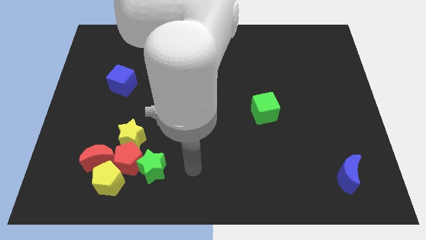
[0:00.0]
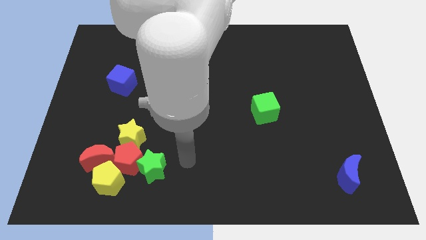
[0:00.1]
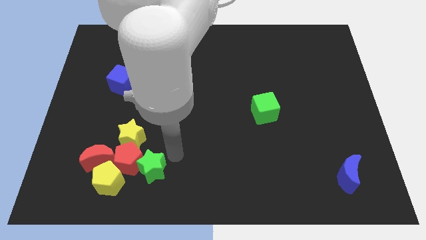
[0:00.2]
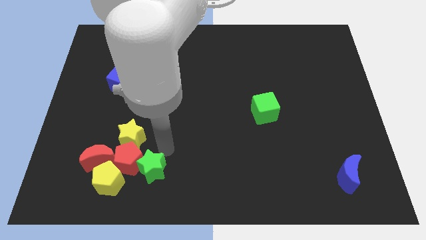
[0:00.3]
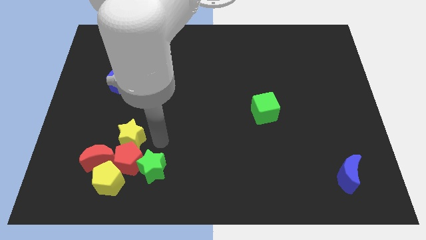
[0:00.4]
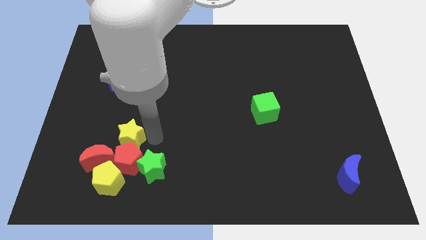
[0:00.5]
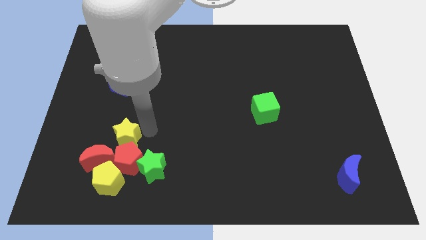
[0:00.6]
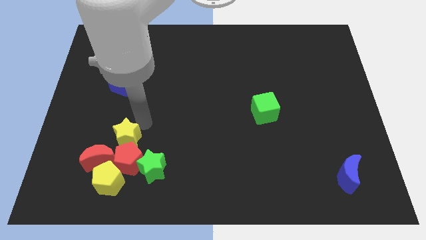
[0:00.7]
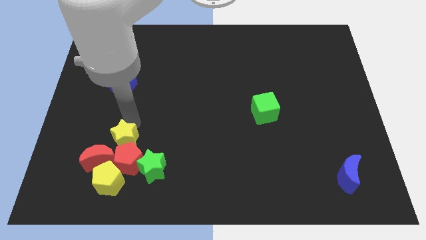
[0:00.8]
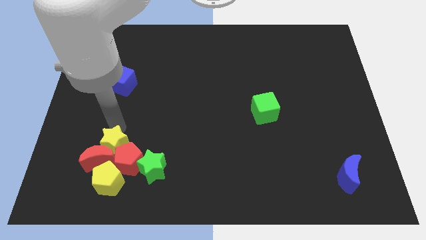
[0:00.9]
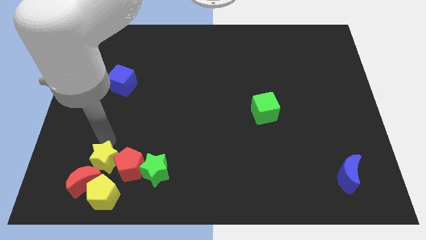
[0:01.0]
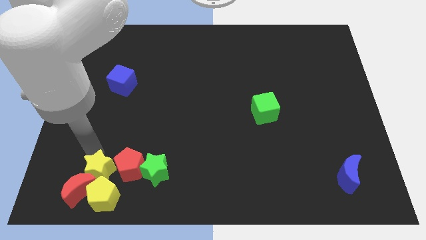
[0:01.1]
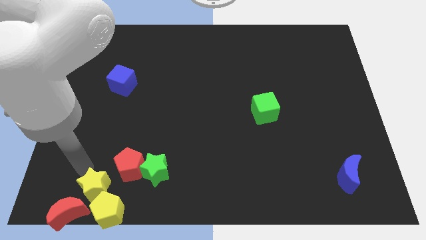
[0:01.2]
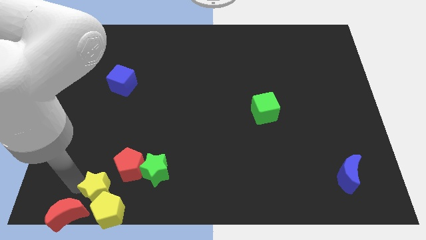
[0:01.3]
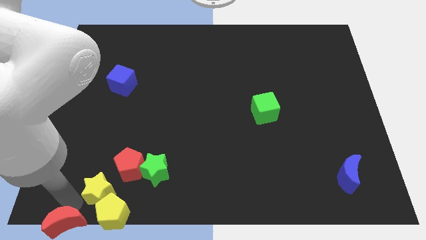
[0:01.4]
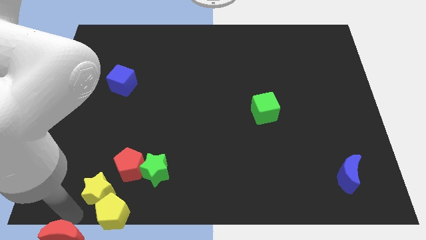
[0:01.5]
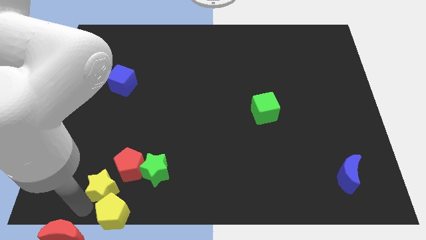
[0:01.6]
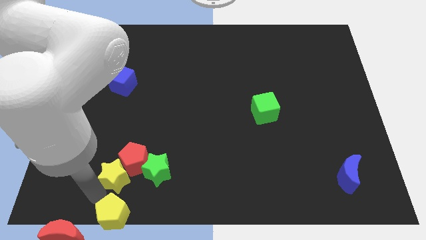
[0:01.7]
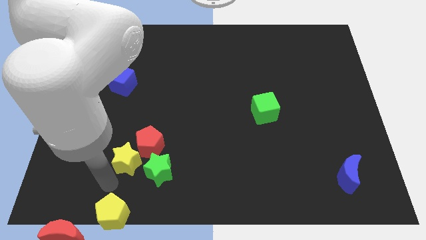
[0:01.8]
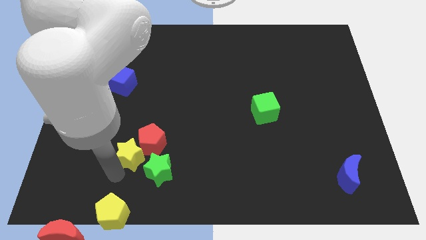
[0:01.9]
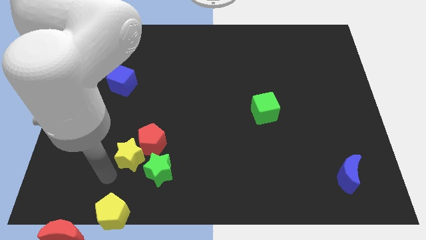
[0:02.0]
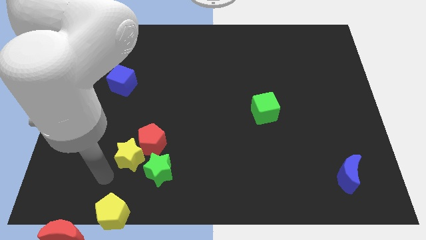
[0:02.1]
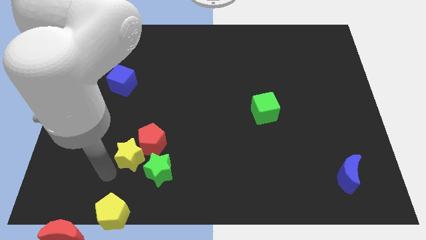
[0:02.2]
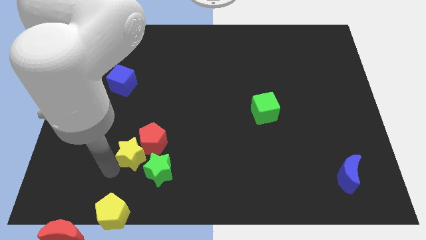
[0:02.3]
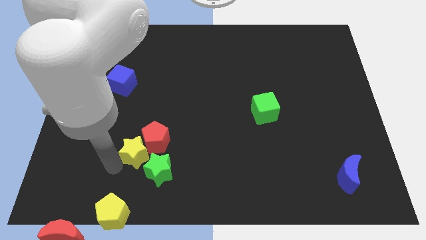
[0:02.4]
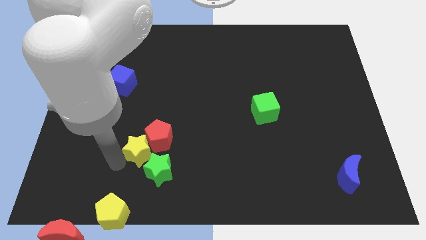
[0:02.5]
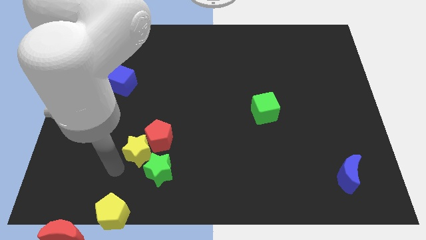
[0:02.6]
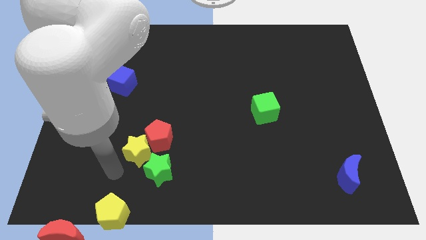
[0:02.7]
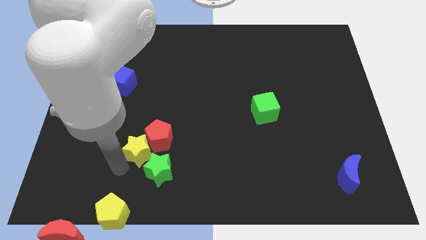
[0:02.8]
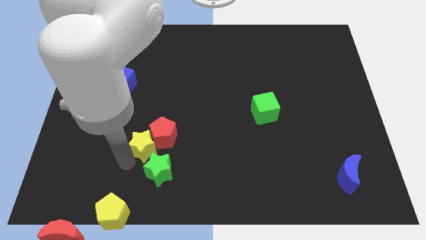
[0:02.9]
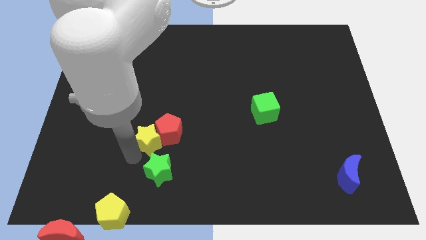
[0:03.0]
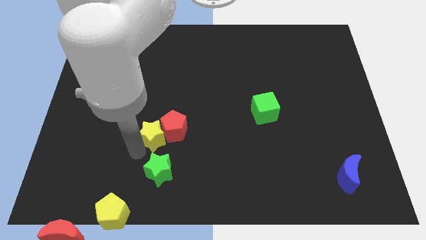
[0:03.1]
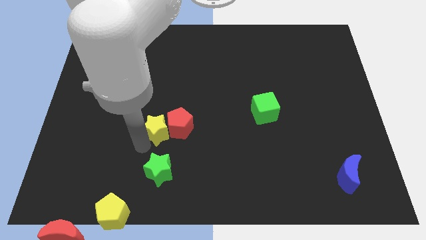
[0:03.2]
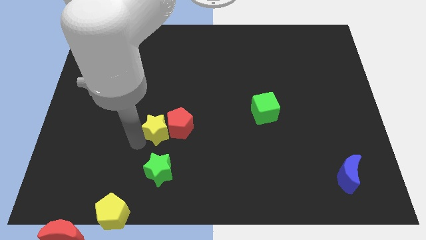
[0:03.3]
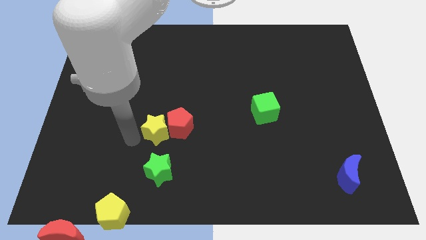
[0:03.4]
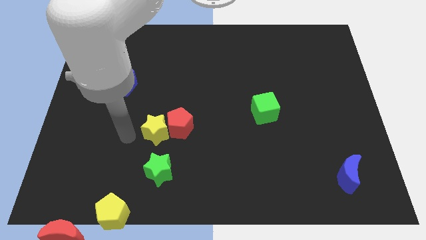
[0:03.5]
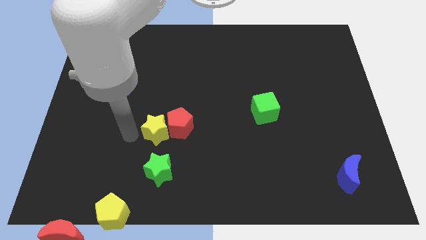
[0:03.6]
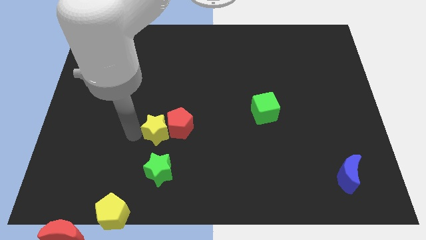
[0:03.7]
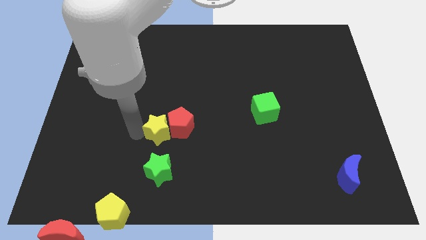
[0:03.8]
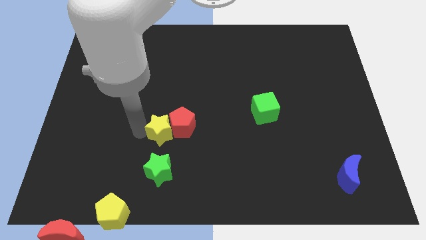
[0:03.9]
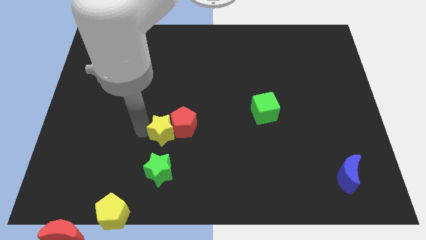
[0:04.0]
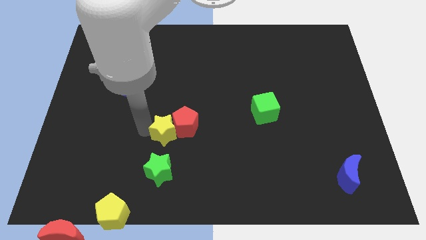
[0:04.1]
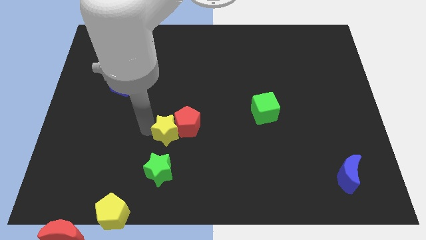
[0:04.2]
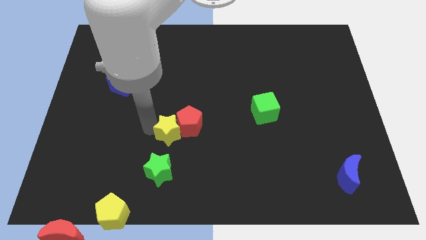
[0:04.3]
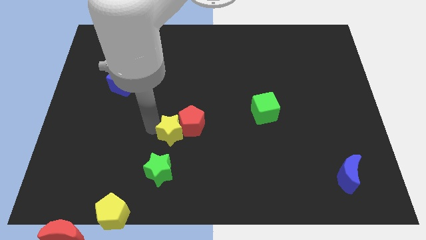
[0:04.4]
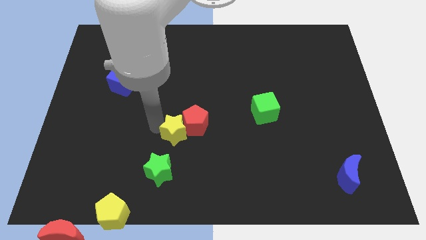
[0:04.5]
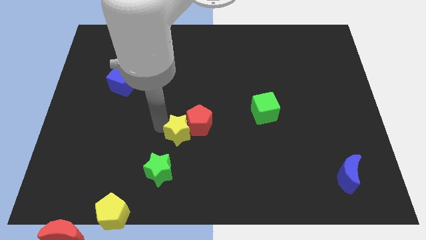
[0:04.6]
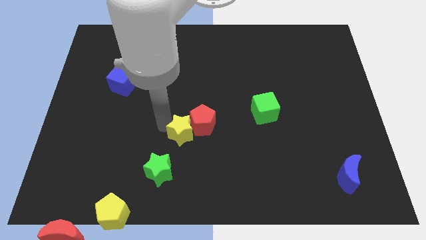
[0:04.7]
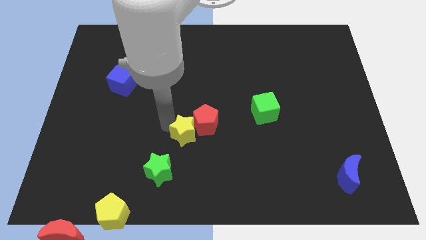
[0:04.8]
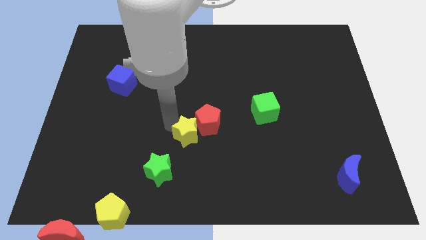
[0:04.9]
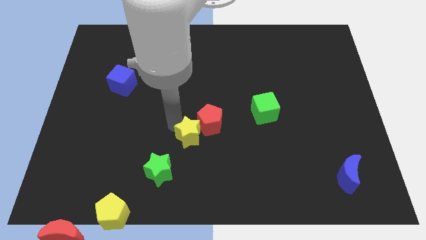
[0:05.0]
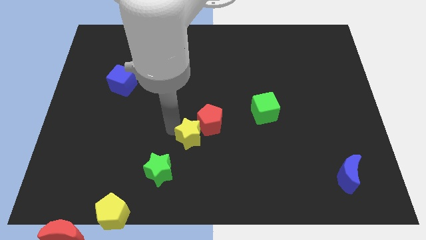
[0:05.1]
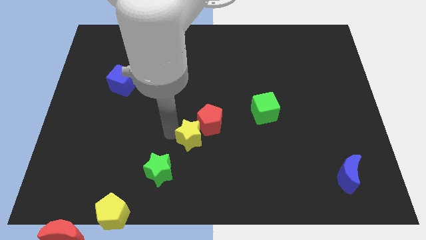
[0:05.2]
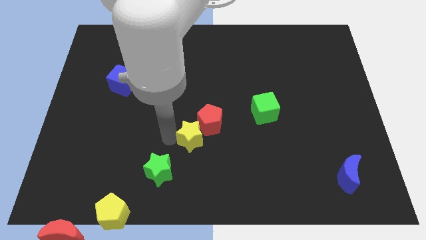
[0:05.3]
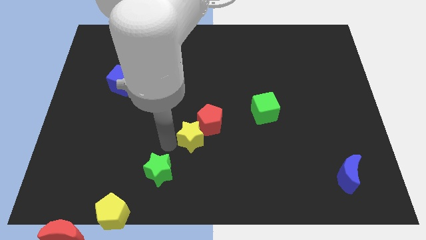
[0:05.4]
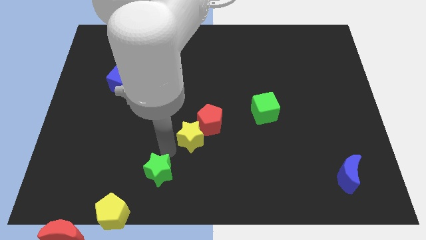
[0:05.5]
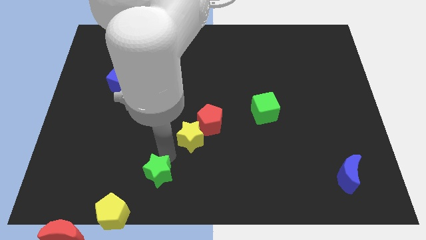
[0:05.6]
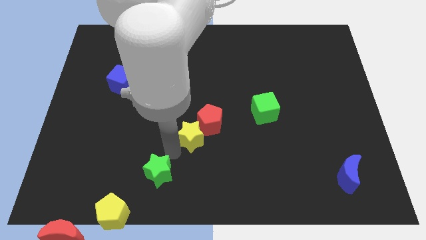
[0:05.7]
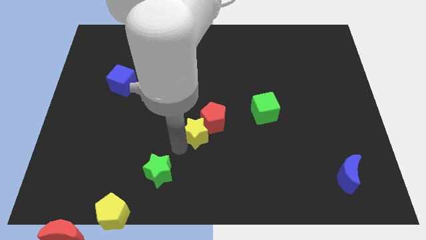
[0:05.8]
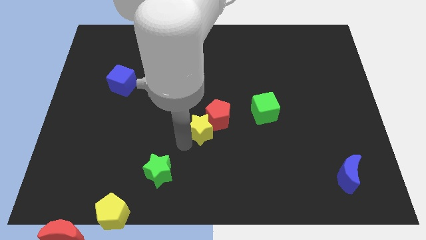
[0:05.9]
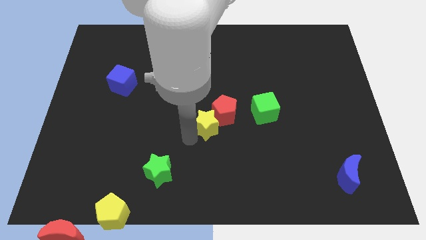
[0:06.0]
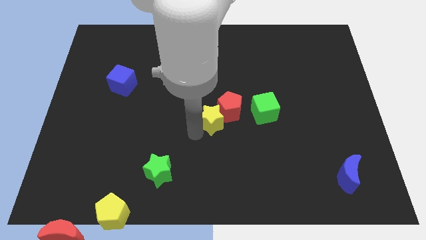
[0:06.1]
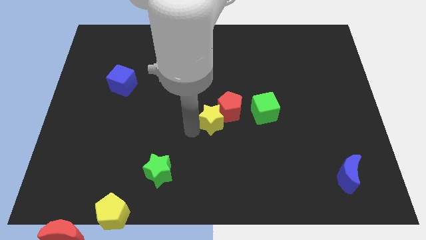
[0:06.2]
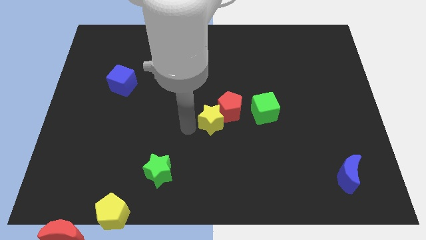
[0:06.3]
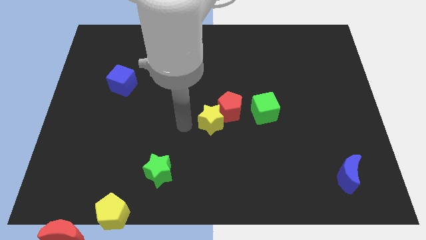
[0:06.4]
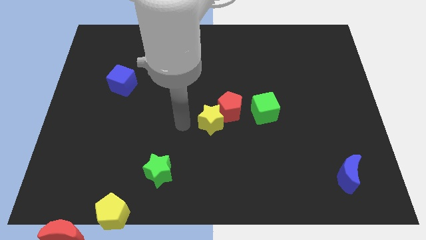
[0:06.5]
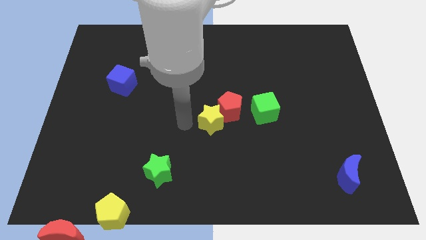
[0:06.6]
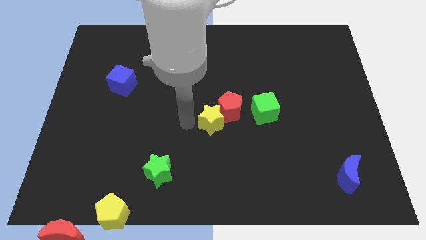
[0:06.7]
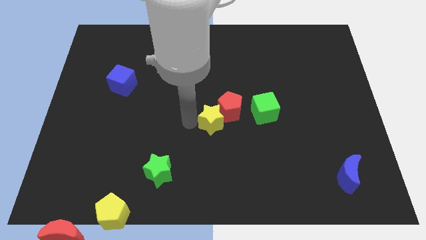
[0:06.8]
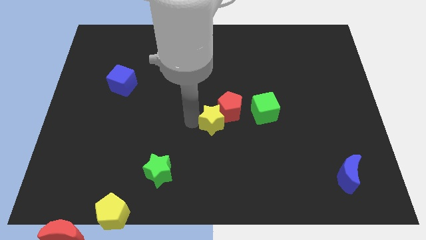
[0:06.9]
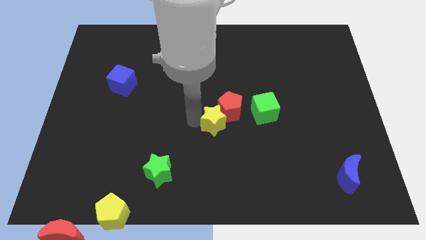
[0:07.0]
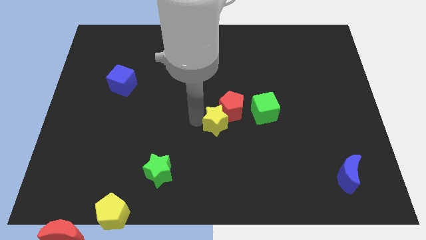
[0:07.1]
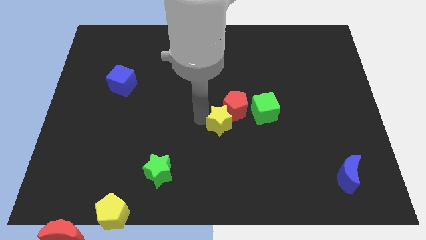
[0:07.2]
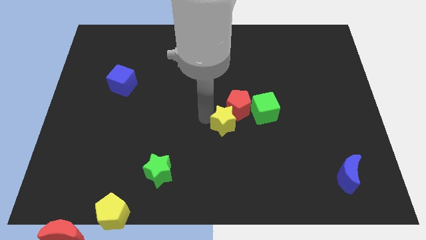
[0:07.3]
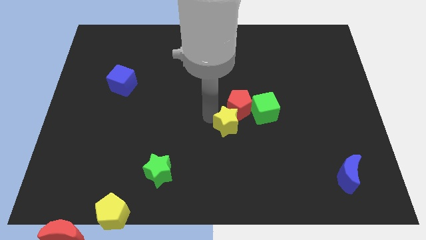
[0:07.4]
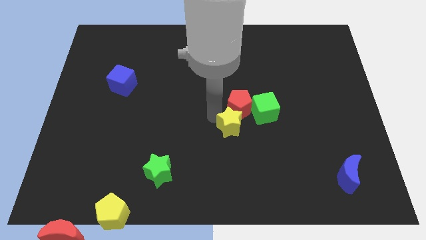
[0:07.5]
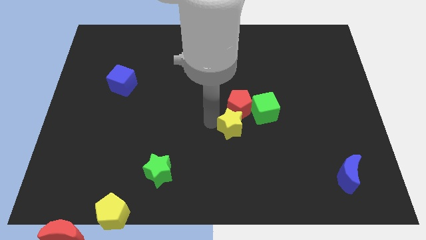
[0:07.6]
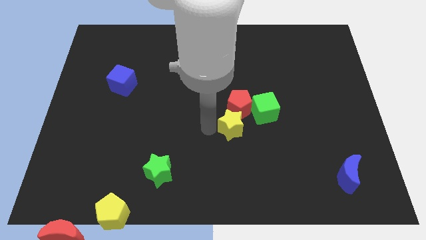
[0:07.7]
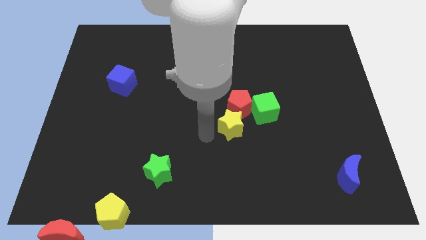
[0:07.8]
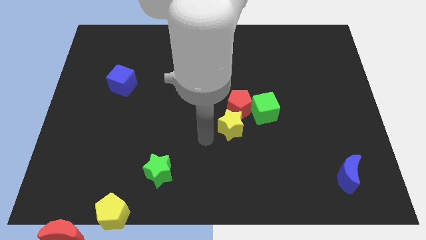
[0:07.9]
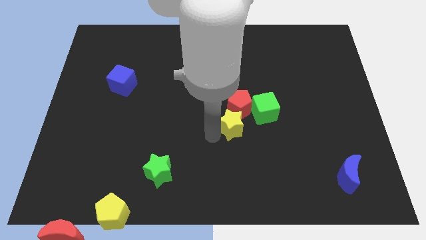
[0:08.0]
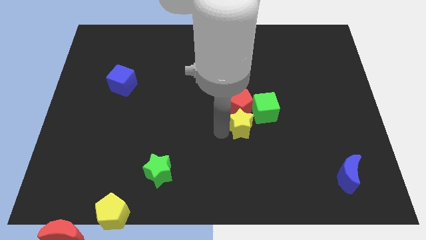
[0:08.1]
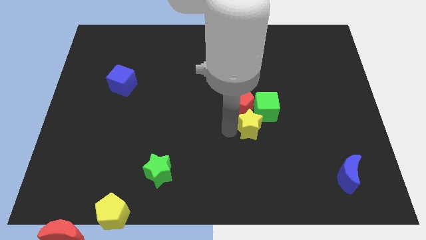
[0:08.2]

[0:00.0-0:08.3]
slide the yellow star close to the green cube

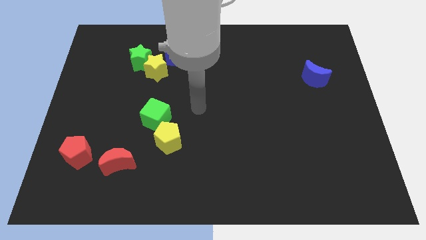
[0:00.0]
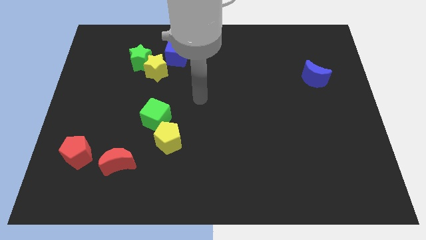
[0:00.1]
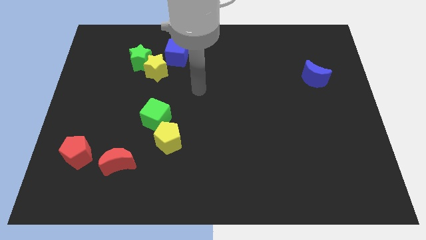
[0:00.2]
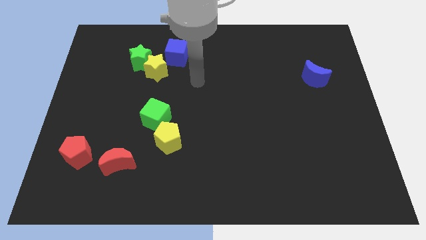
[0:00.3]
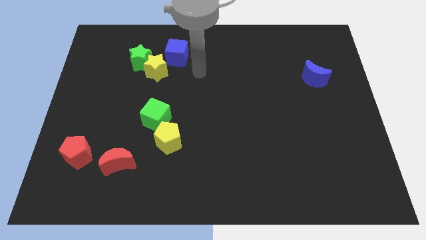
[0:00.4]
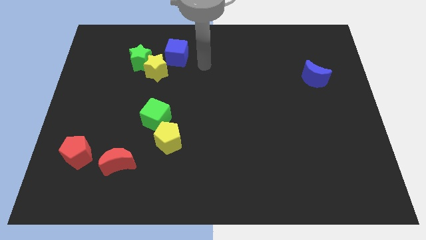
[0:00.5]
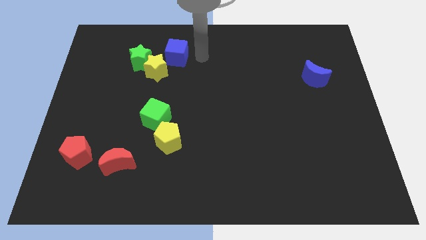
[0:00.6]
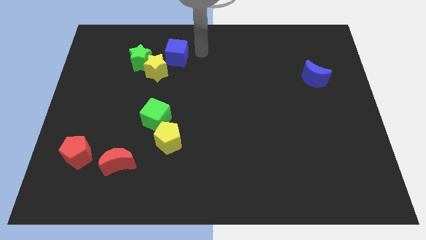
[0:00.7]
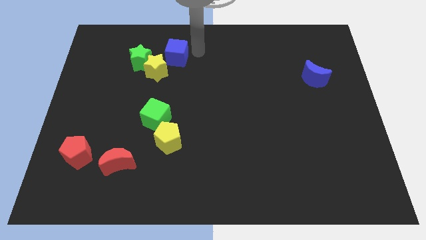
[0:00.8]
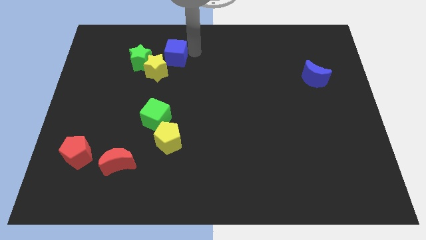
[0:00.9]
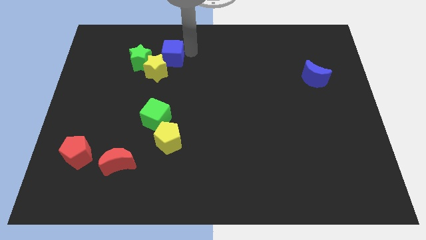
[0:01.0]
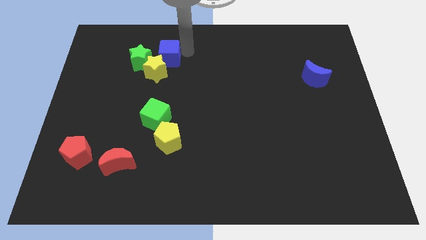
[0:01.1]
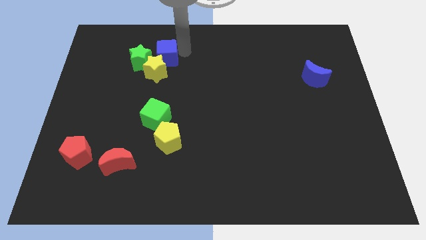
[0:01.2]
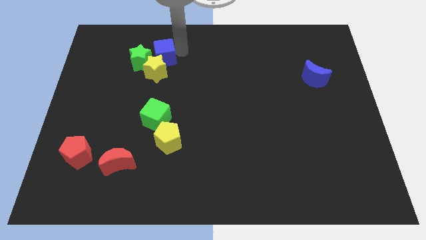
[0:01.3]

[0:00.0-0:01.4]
slide the blue cube to the green star
